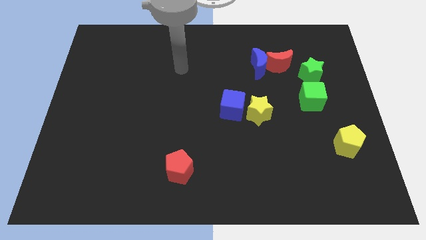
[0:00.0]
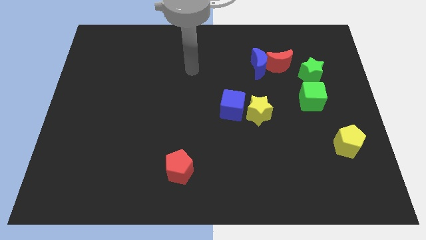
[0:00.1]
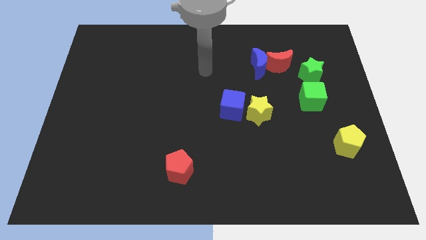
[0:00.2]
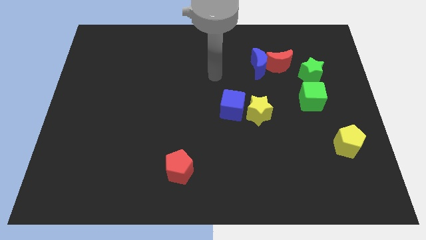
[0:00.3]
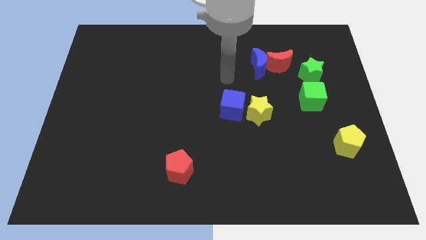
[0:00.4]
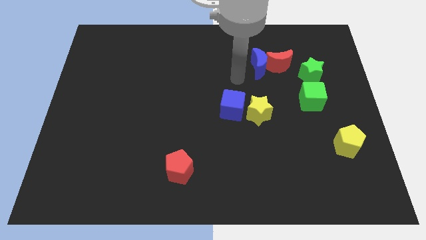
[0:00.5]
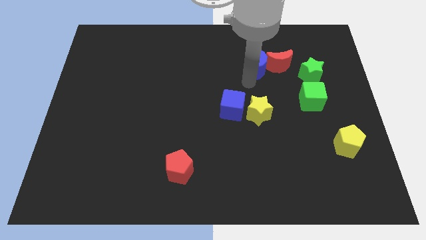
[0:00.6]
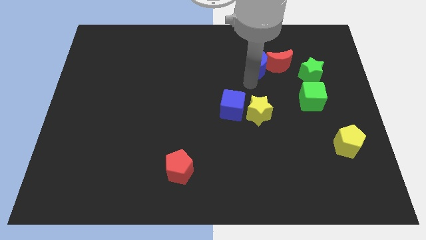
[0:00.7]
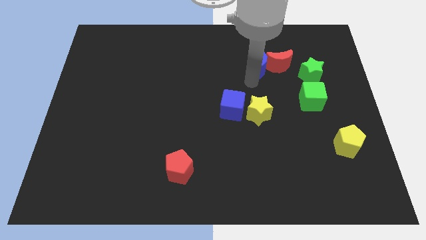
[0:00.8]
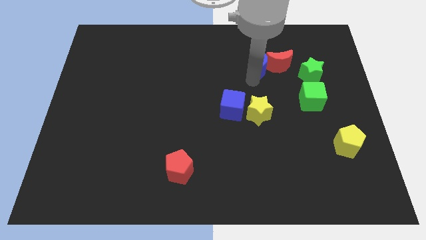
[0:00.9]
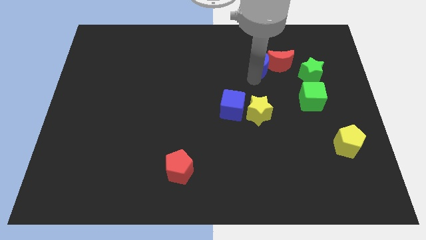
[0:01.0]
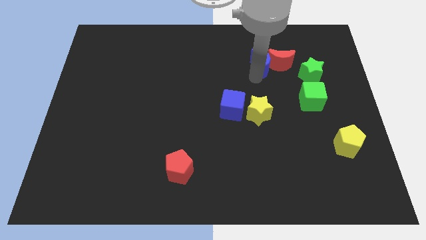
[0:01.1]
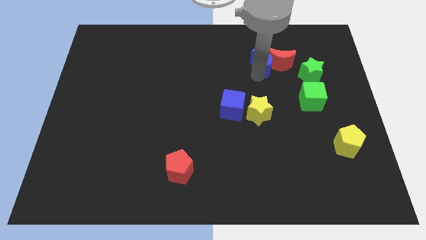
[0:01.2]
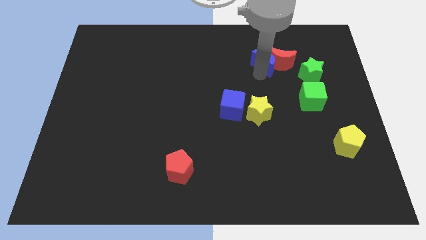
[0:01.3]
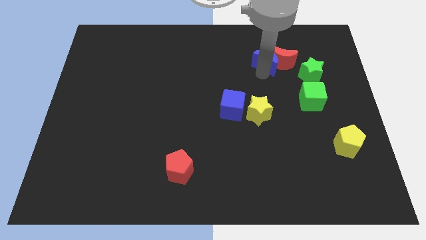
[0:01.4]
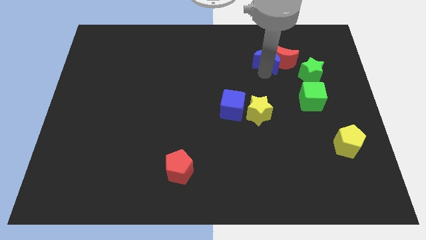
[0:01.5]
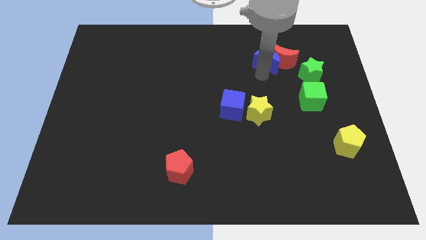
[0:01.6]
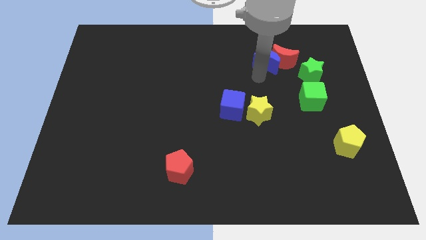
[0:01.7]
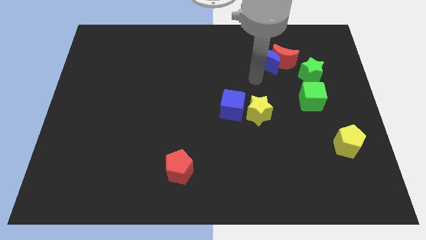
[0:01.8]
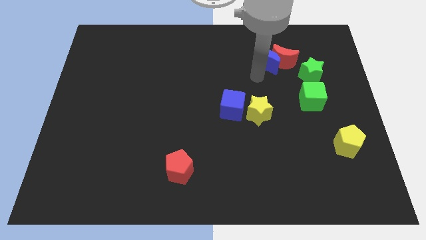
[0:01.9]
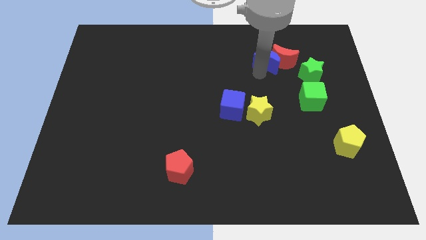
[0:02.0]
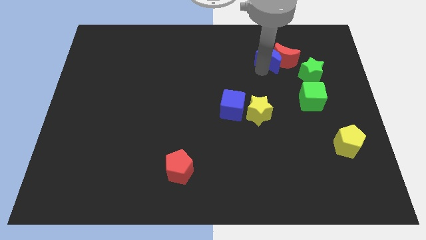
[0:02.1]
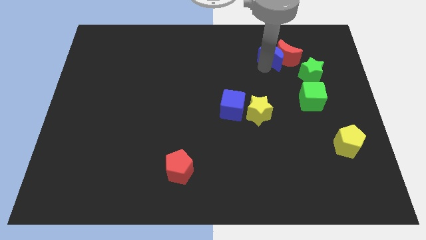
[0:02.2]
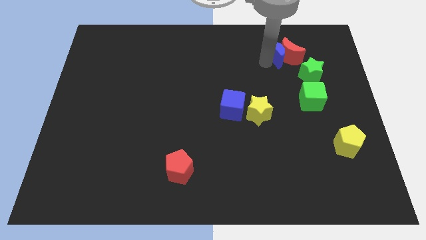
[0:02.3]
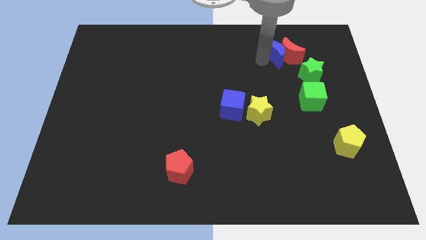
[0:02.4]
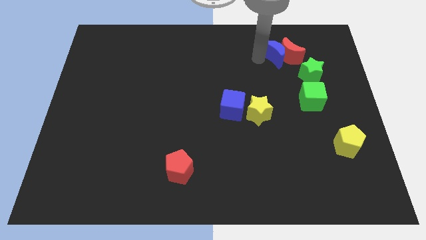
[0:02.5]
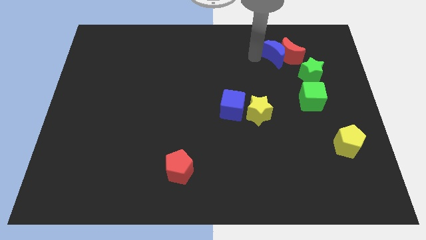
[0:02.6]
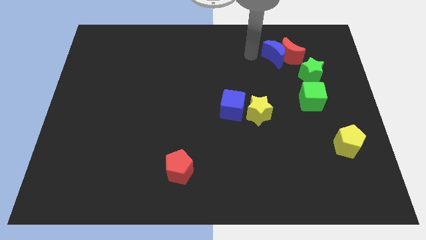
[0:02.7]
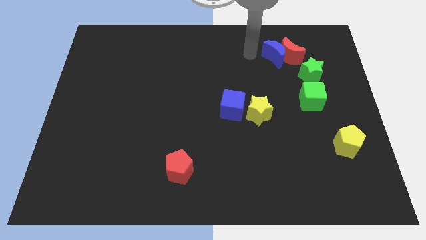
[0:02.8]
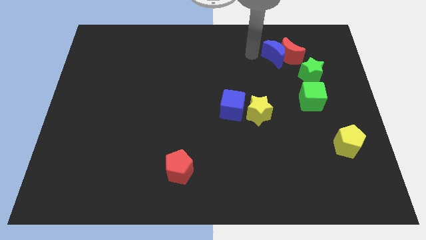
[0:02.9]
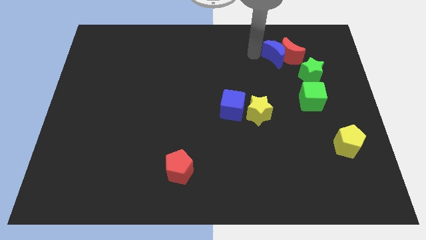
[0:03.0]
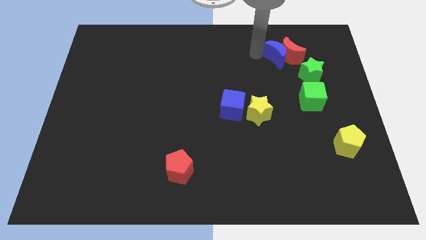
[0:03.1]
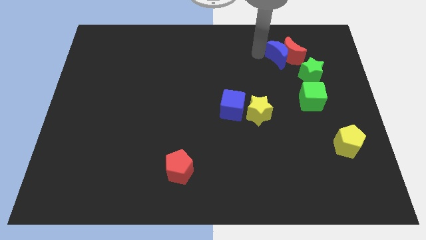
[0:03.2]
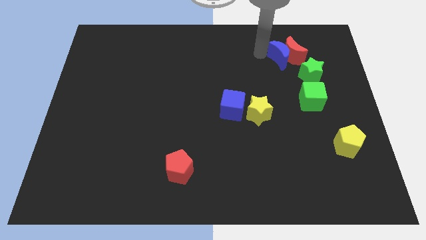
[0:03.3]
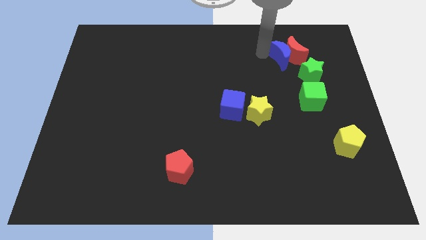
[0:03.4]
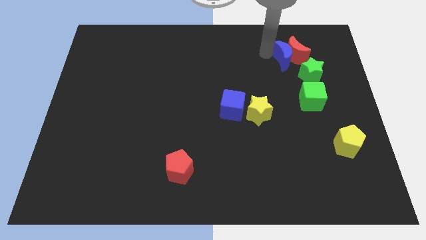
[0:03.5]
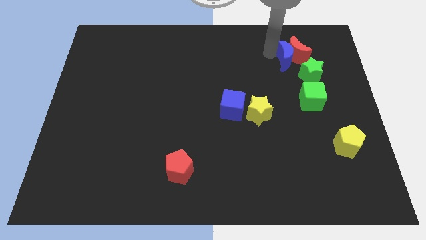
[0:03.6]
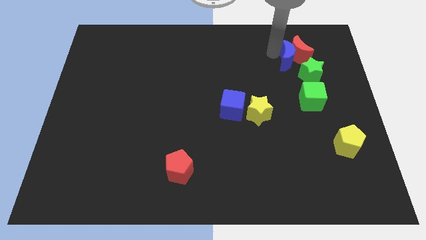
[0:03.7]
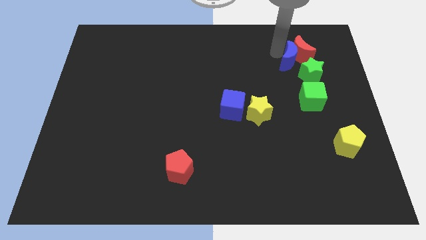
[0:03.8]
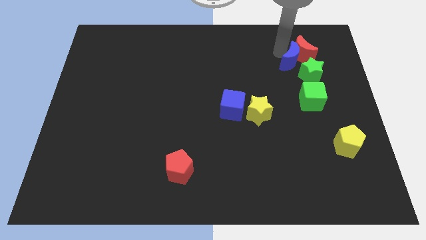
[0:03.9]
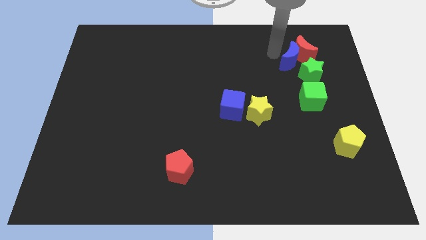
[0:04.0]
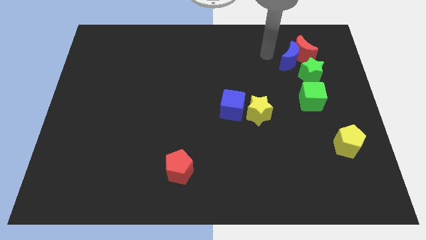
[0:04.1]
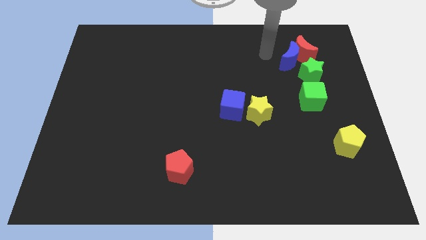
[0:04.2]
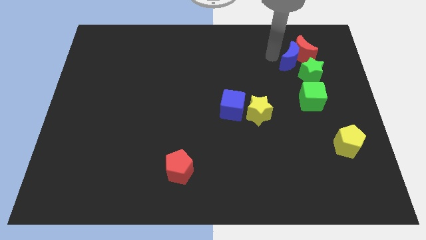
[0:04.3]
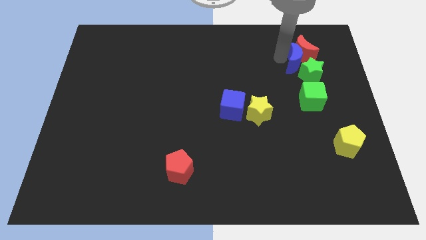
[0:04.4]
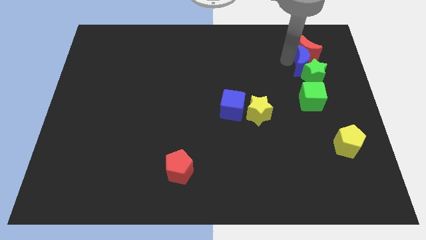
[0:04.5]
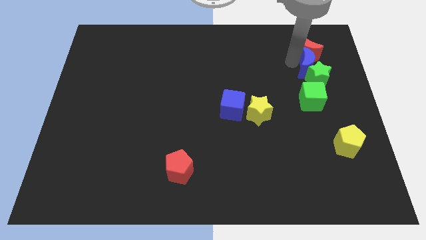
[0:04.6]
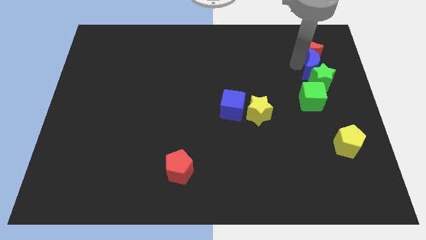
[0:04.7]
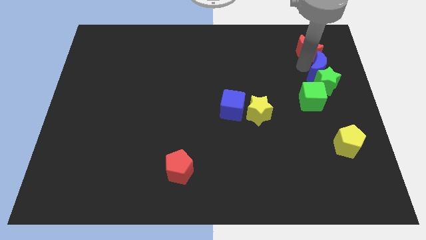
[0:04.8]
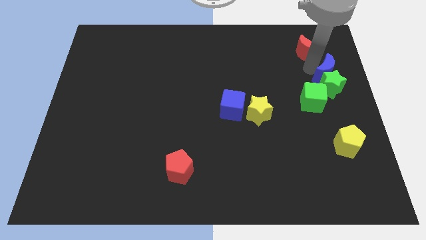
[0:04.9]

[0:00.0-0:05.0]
slide the blue moon to the right side

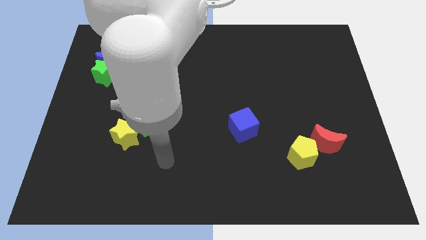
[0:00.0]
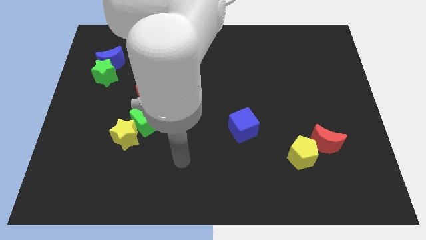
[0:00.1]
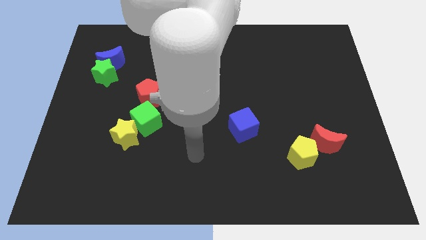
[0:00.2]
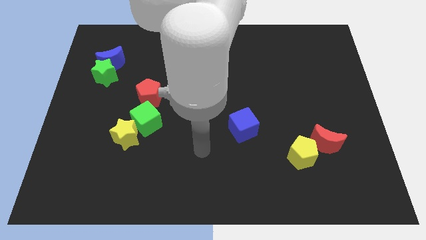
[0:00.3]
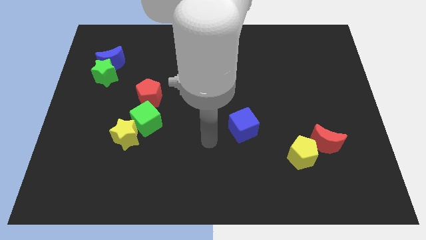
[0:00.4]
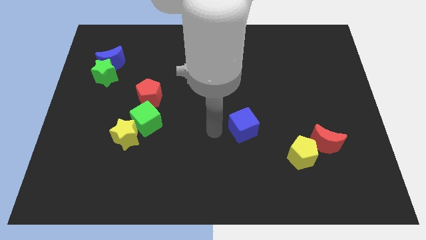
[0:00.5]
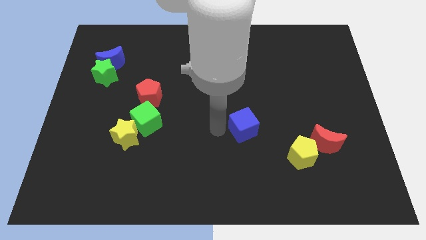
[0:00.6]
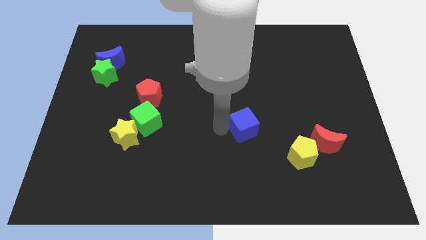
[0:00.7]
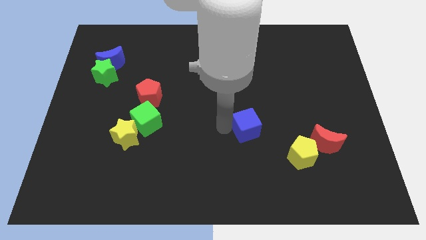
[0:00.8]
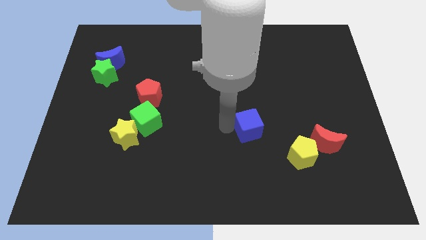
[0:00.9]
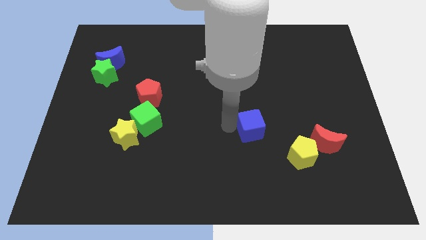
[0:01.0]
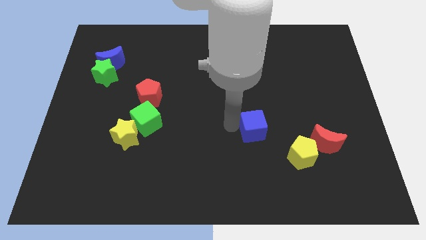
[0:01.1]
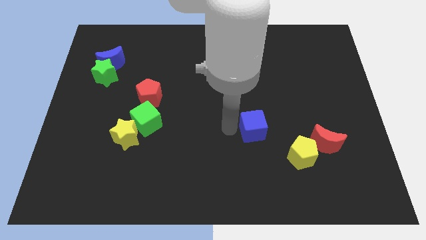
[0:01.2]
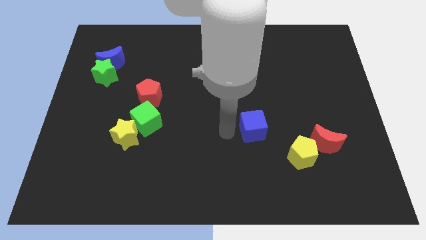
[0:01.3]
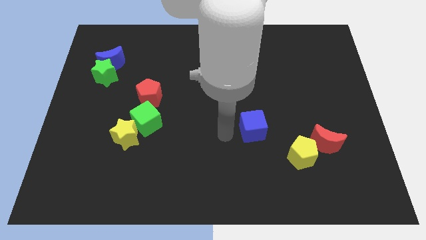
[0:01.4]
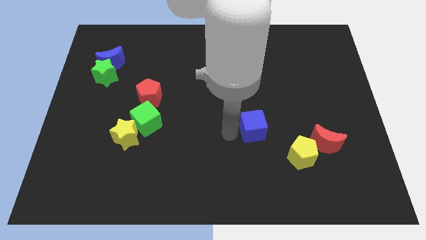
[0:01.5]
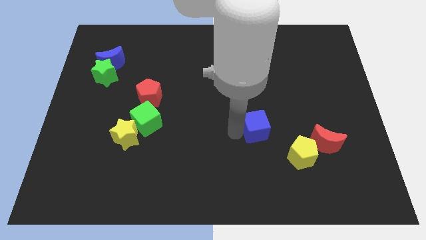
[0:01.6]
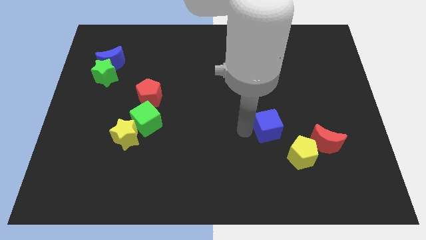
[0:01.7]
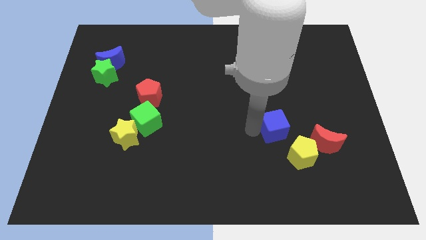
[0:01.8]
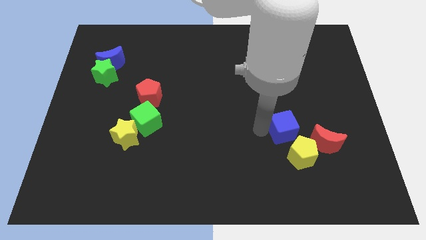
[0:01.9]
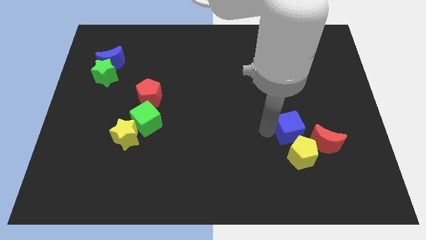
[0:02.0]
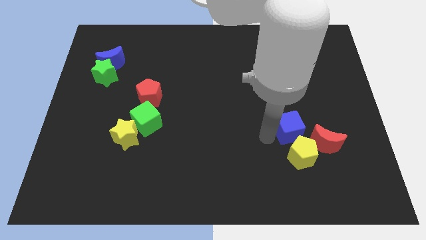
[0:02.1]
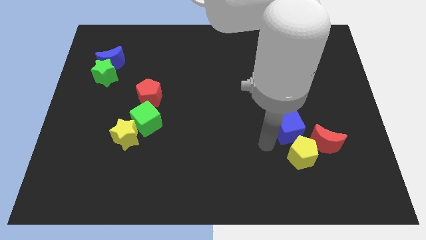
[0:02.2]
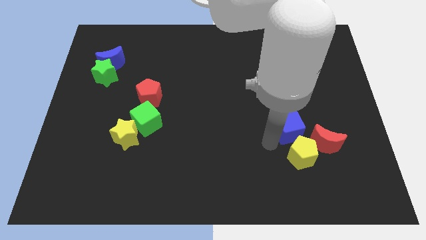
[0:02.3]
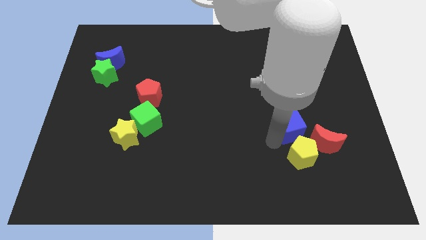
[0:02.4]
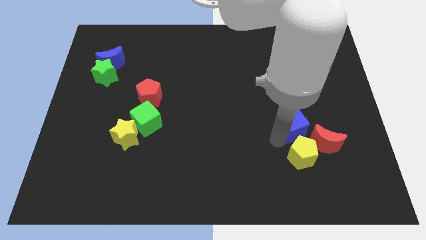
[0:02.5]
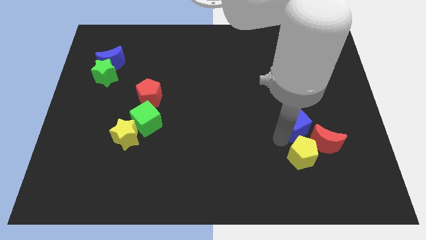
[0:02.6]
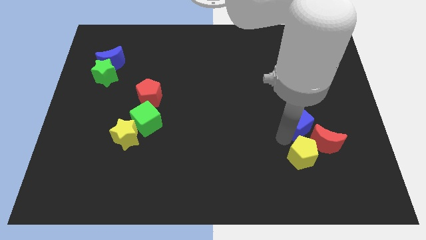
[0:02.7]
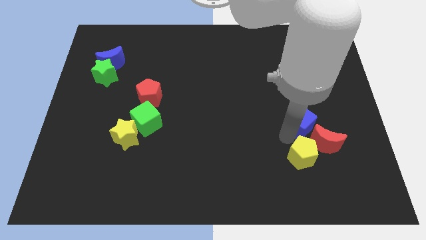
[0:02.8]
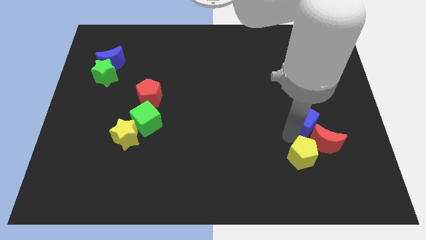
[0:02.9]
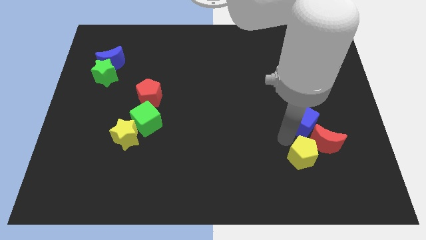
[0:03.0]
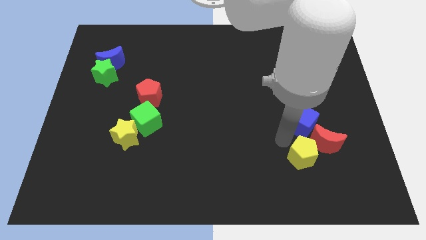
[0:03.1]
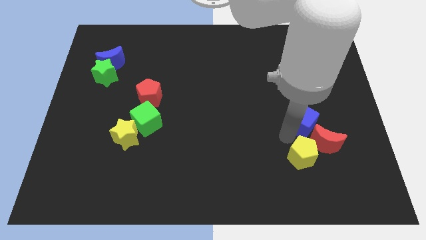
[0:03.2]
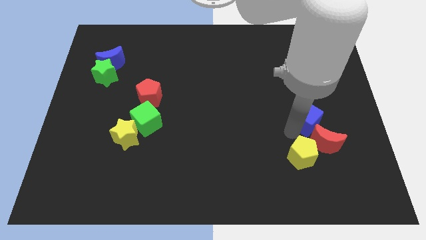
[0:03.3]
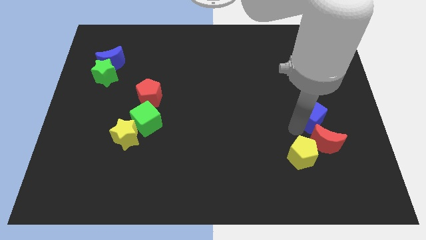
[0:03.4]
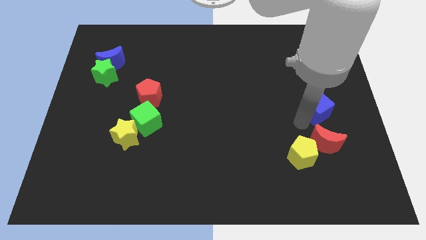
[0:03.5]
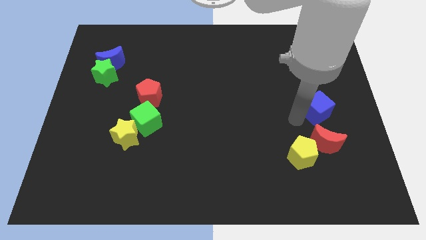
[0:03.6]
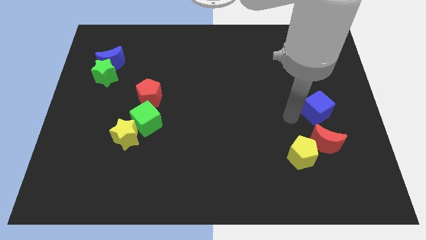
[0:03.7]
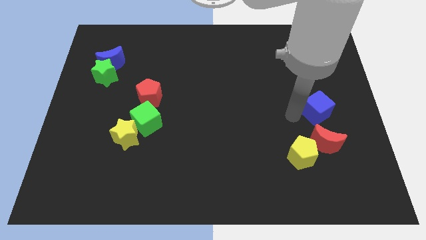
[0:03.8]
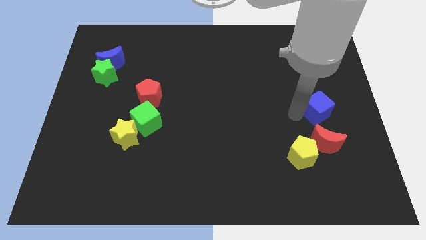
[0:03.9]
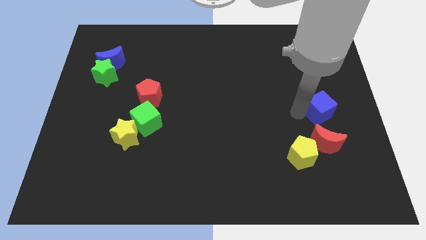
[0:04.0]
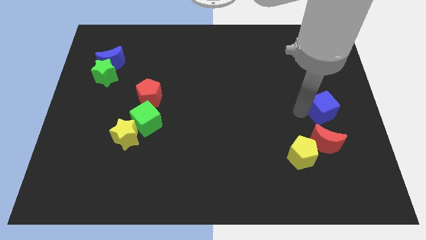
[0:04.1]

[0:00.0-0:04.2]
put the blue cube to the right side of the board
